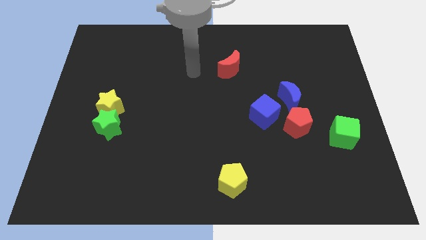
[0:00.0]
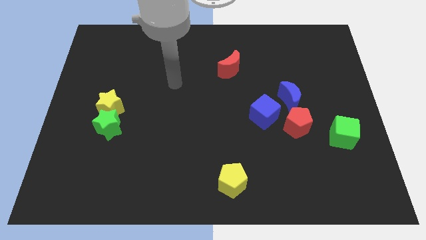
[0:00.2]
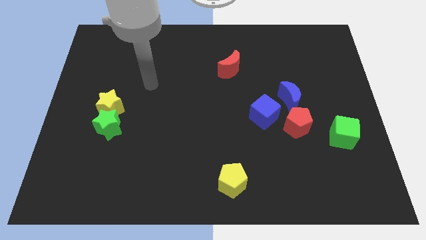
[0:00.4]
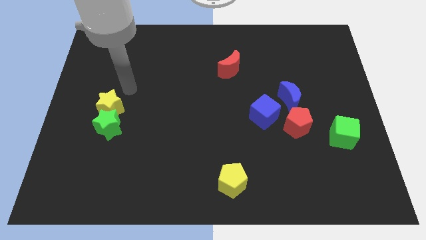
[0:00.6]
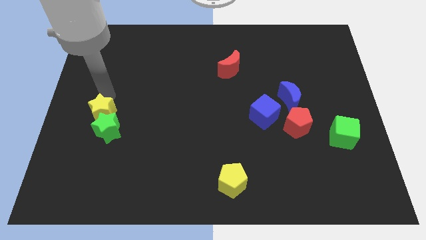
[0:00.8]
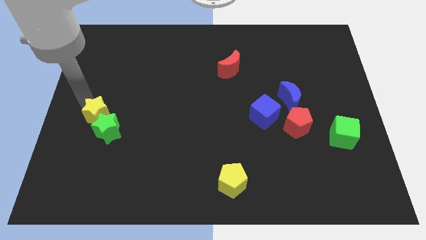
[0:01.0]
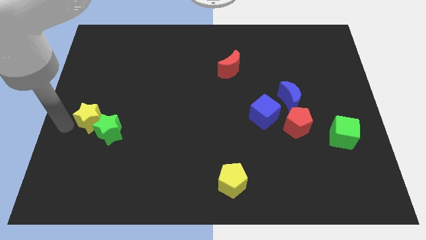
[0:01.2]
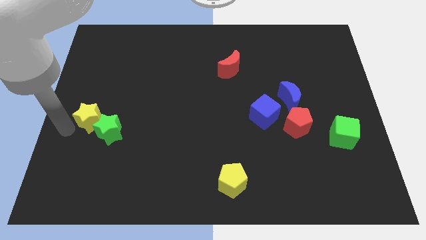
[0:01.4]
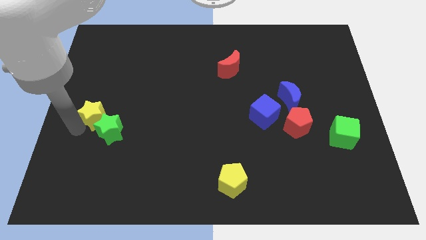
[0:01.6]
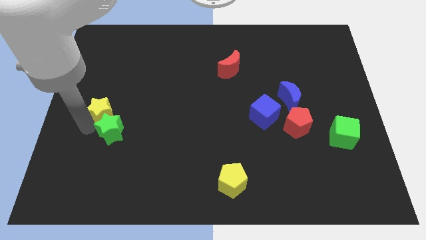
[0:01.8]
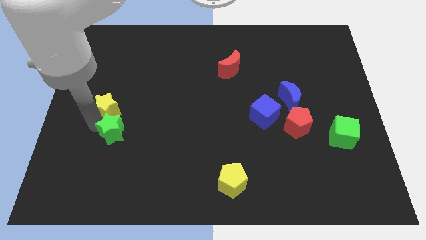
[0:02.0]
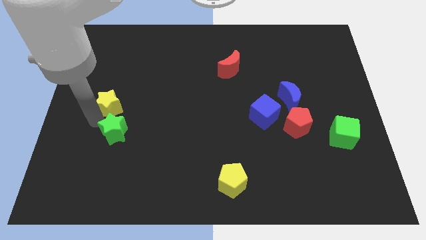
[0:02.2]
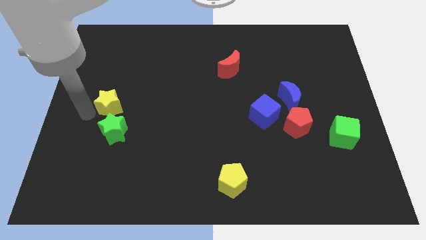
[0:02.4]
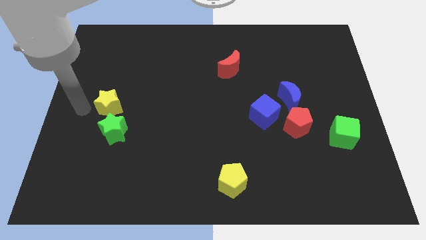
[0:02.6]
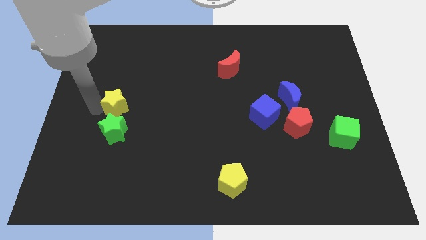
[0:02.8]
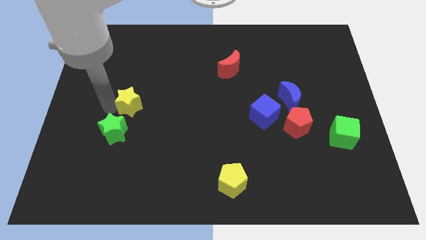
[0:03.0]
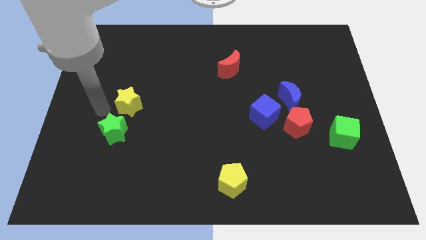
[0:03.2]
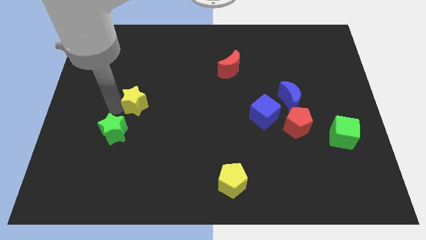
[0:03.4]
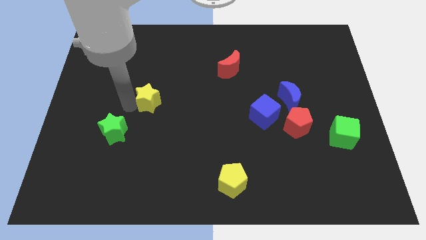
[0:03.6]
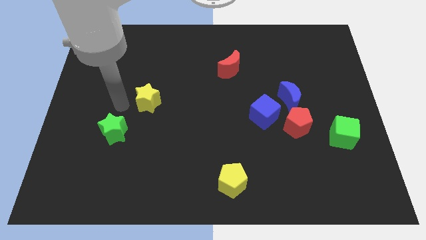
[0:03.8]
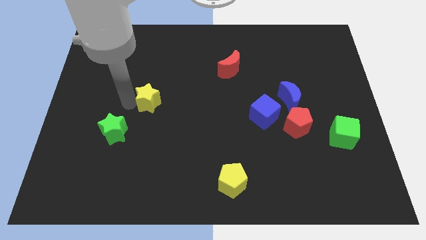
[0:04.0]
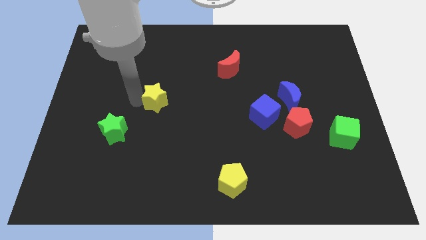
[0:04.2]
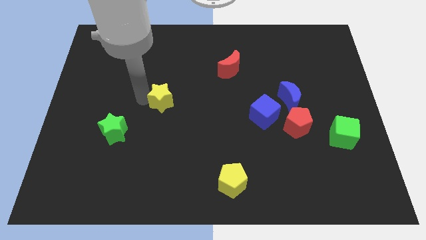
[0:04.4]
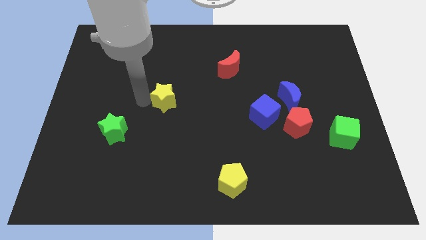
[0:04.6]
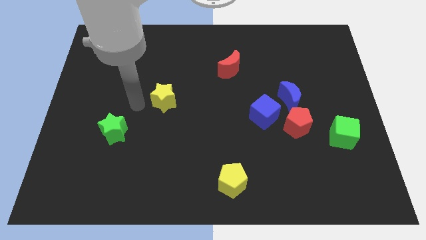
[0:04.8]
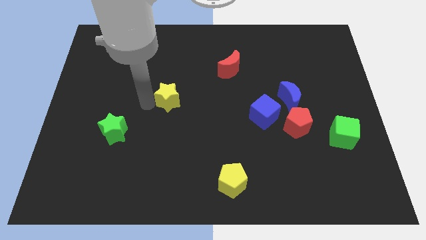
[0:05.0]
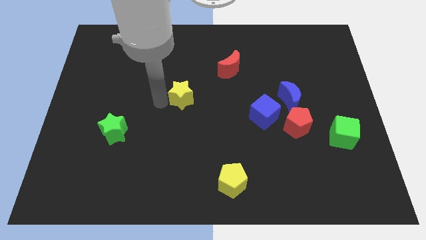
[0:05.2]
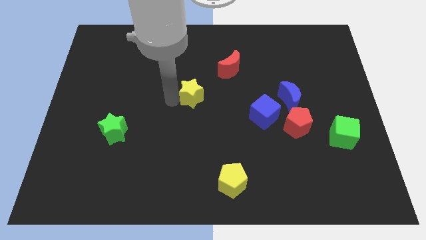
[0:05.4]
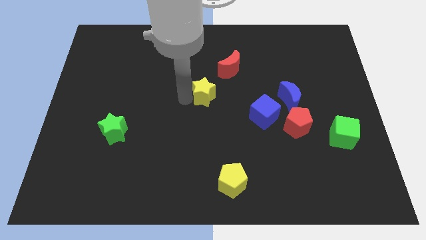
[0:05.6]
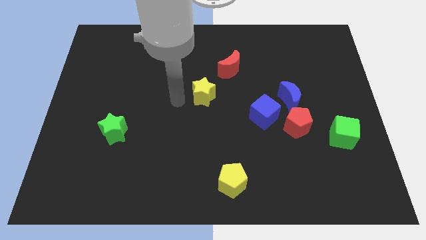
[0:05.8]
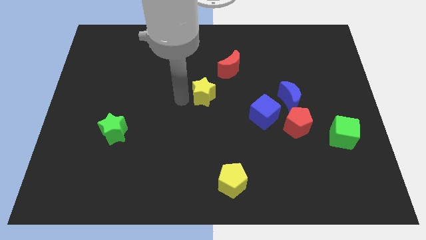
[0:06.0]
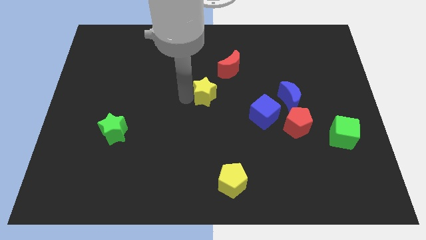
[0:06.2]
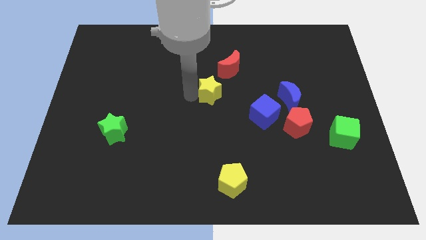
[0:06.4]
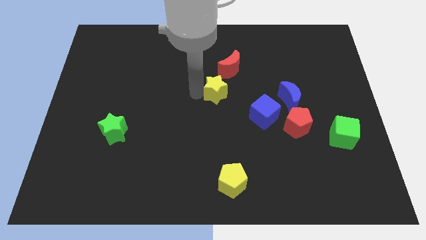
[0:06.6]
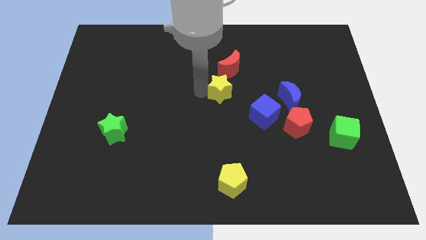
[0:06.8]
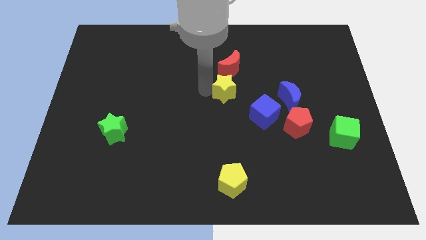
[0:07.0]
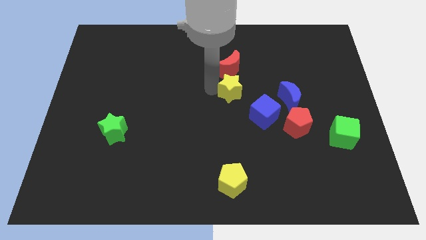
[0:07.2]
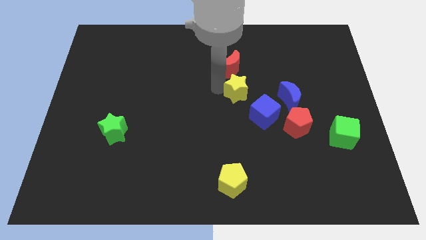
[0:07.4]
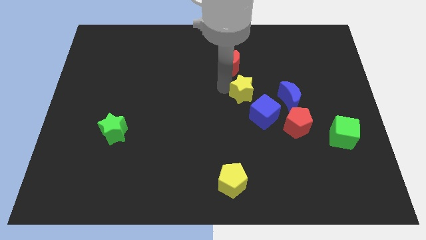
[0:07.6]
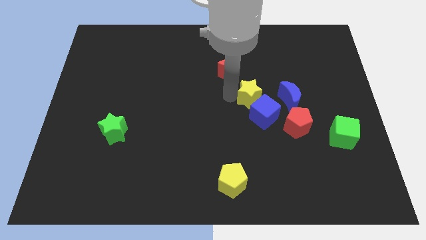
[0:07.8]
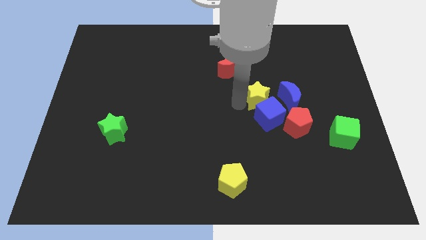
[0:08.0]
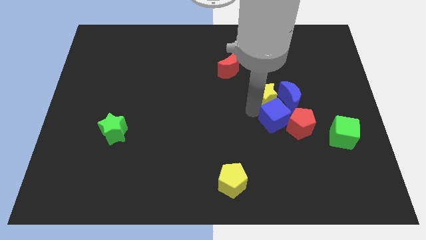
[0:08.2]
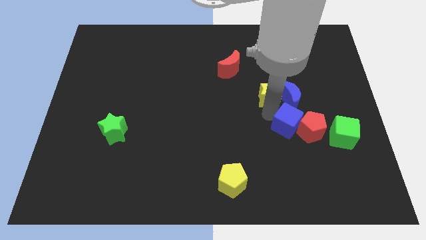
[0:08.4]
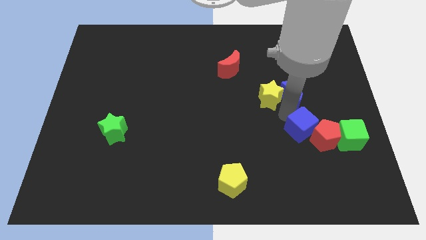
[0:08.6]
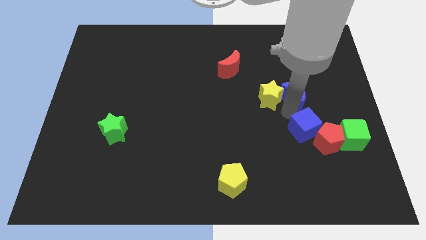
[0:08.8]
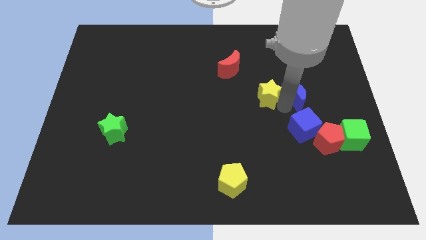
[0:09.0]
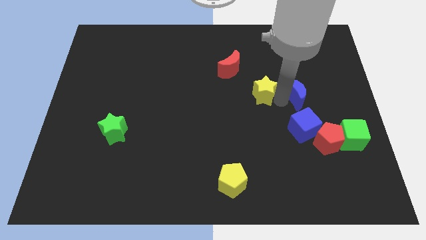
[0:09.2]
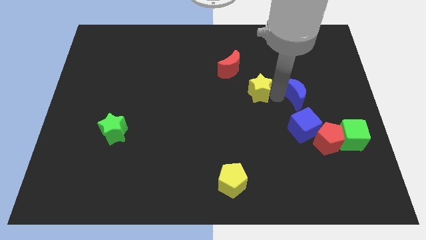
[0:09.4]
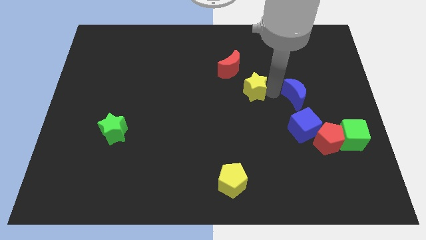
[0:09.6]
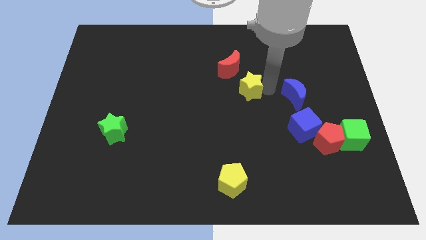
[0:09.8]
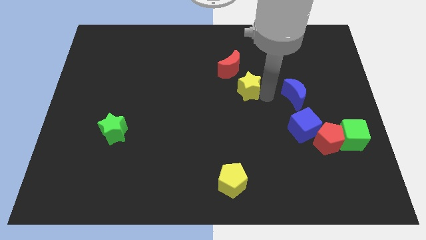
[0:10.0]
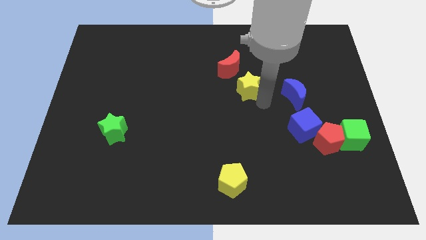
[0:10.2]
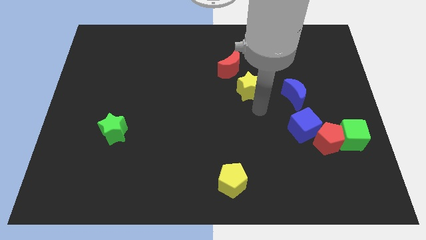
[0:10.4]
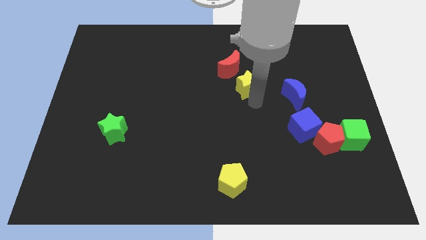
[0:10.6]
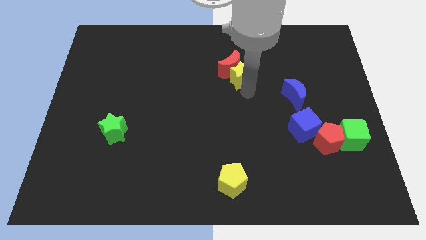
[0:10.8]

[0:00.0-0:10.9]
slide the yellow star right of the red moon

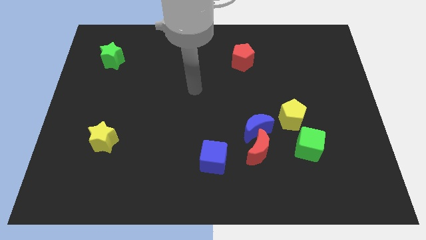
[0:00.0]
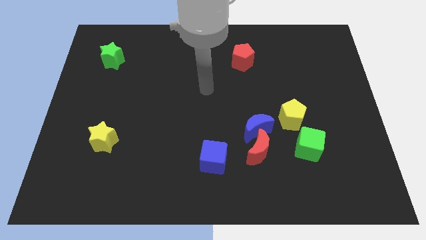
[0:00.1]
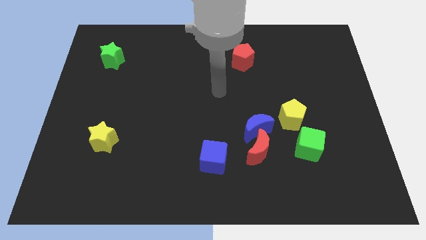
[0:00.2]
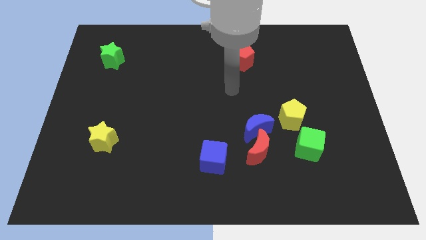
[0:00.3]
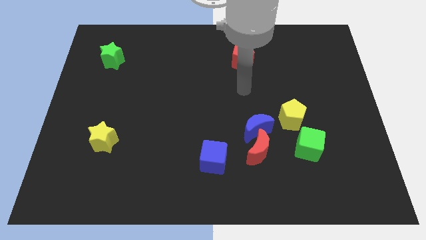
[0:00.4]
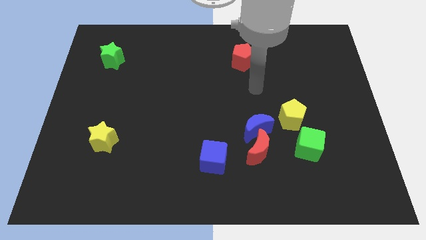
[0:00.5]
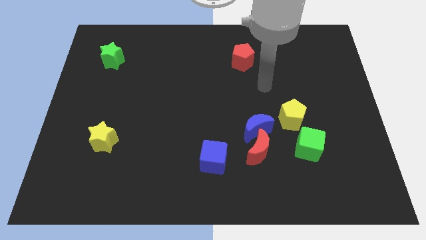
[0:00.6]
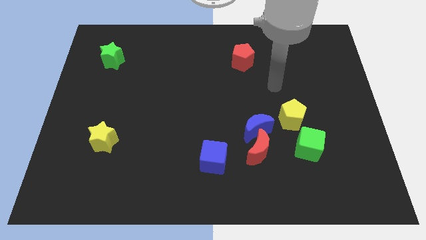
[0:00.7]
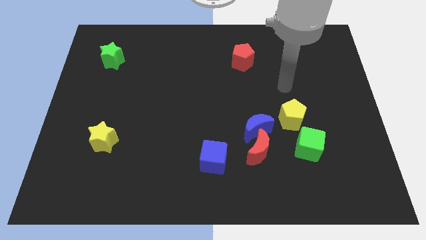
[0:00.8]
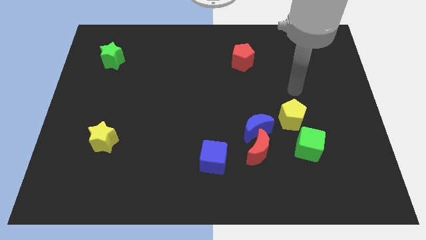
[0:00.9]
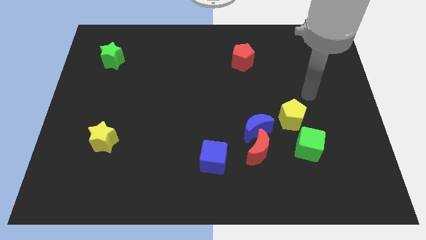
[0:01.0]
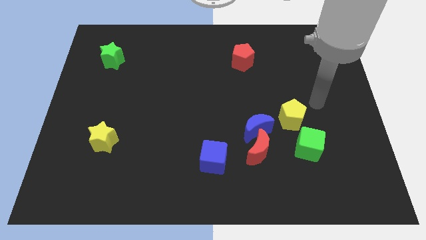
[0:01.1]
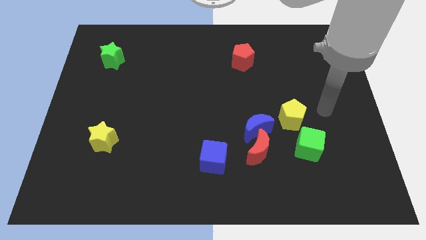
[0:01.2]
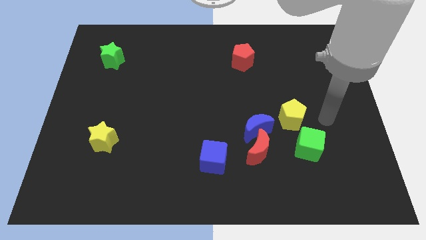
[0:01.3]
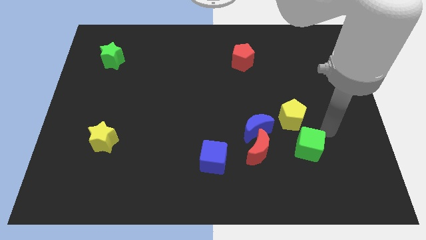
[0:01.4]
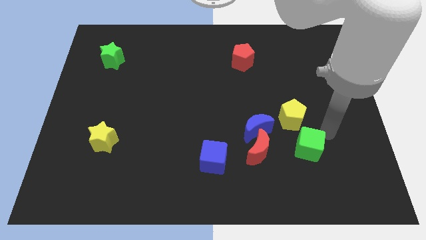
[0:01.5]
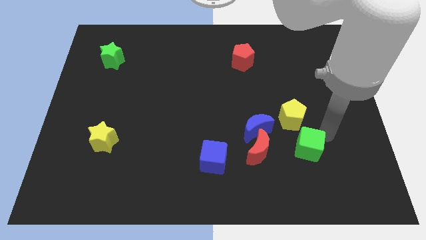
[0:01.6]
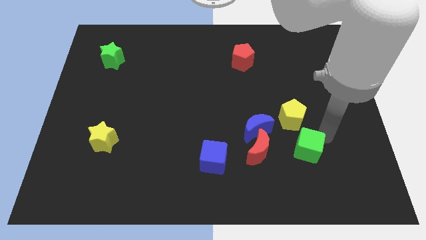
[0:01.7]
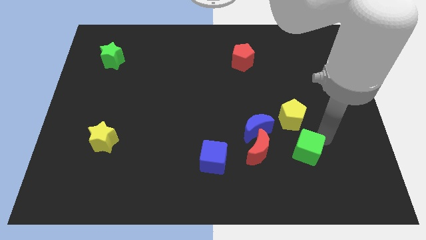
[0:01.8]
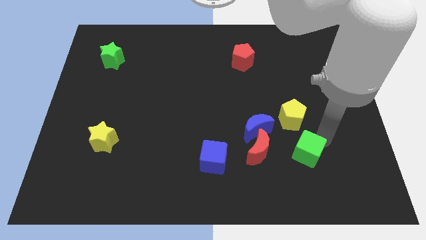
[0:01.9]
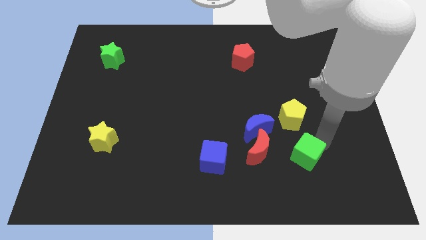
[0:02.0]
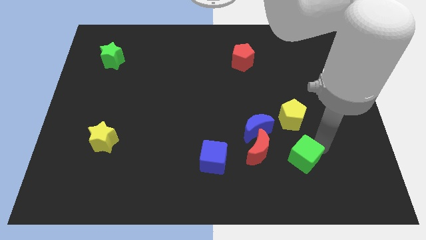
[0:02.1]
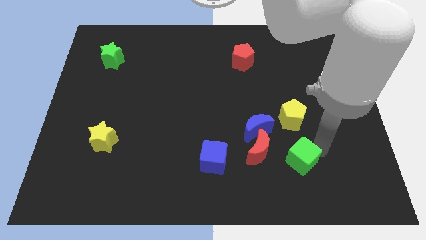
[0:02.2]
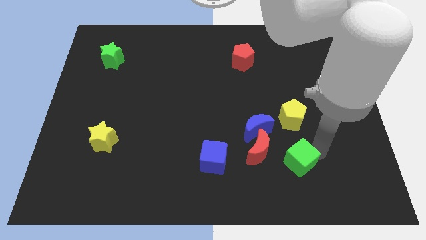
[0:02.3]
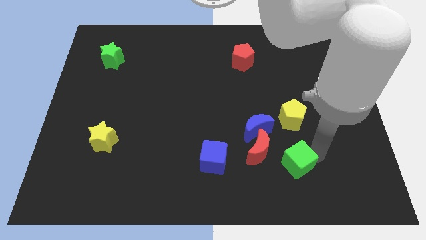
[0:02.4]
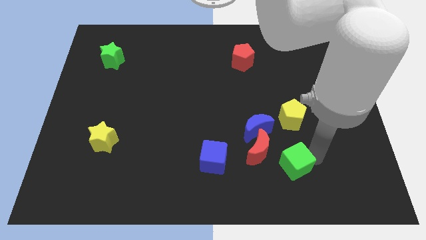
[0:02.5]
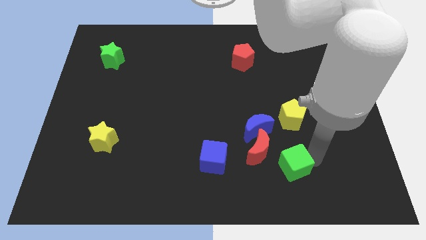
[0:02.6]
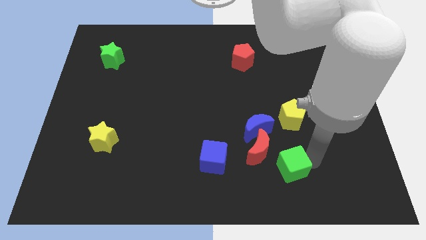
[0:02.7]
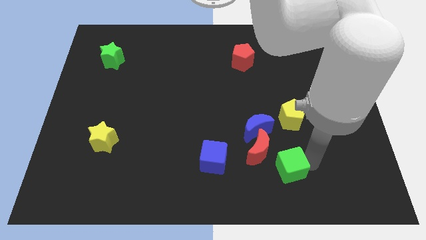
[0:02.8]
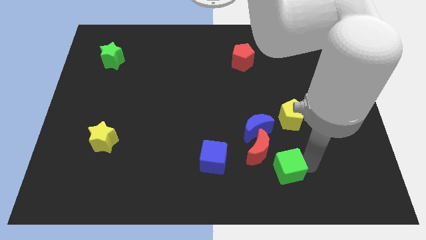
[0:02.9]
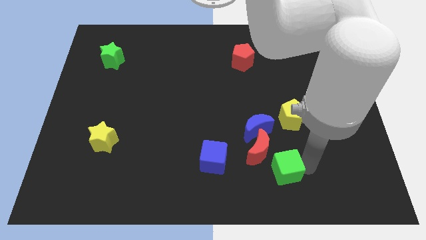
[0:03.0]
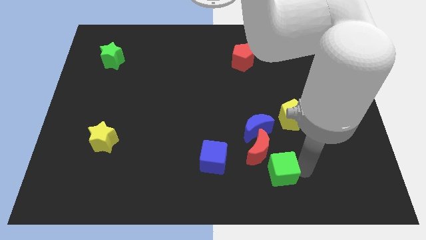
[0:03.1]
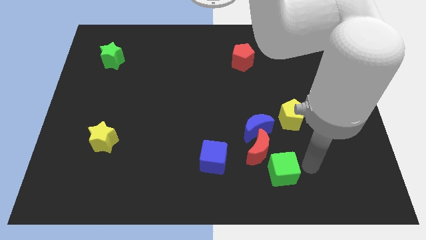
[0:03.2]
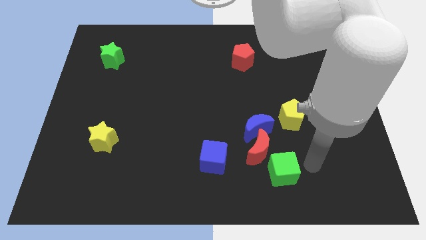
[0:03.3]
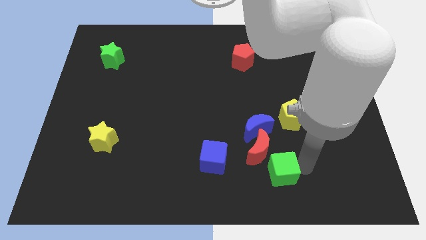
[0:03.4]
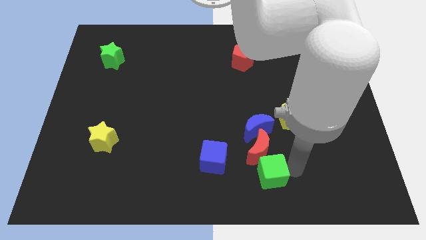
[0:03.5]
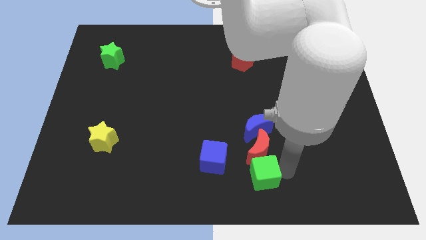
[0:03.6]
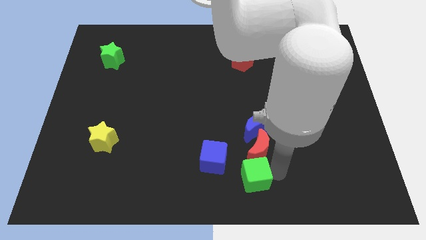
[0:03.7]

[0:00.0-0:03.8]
put the green cube to the bottom right side of the blue cube
